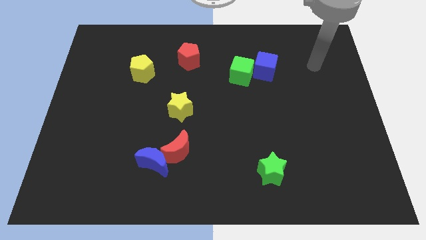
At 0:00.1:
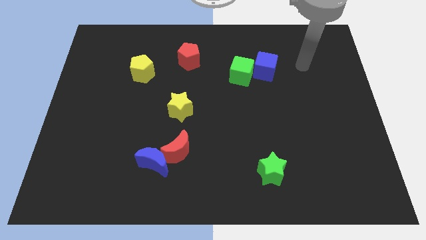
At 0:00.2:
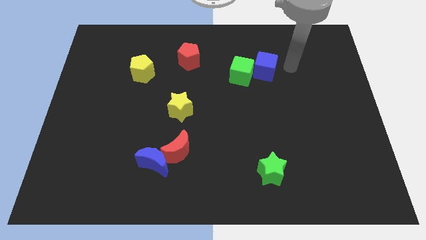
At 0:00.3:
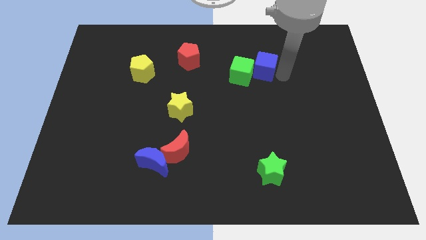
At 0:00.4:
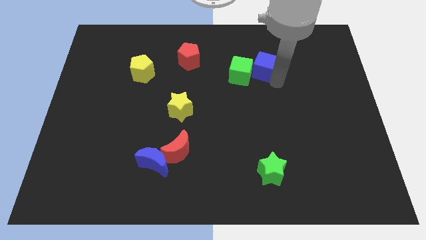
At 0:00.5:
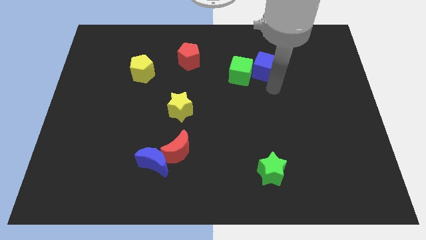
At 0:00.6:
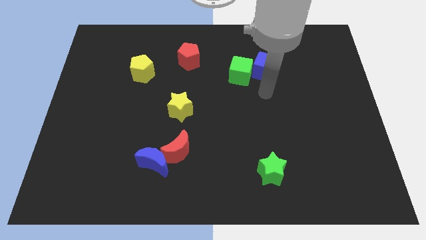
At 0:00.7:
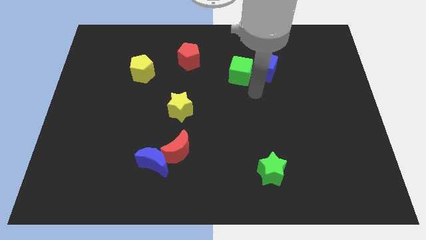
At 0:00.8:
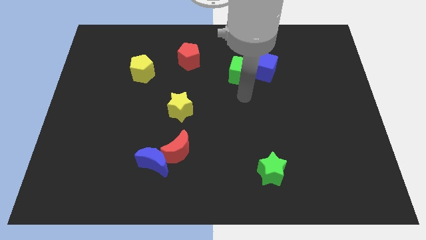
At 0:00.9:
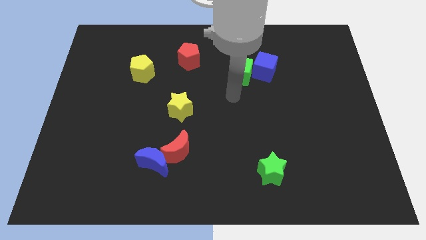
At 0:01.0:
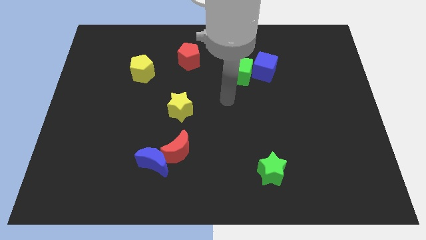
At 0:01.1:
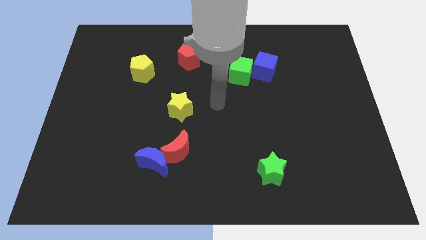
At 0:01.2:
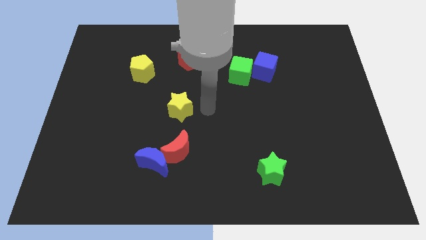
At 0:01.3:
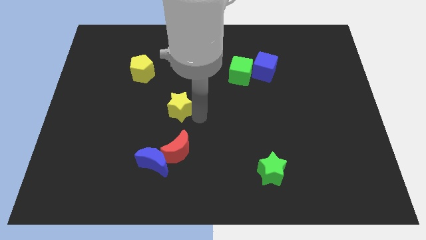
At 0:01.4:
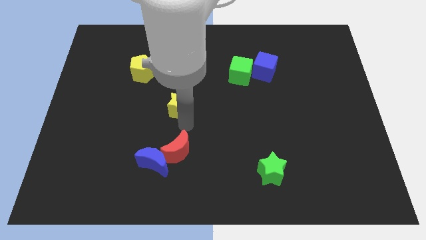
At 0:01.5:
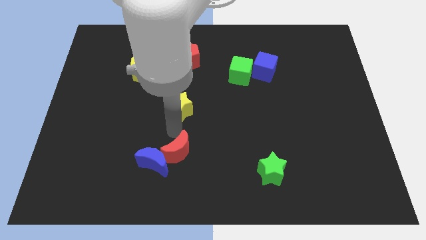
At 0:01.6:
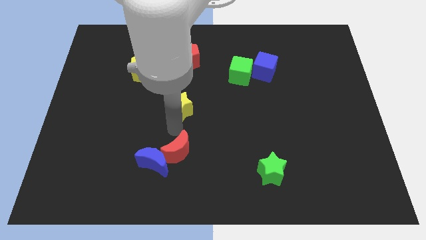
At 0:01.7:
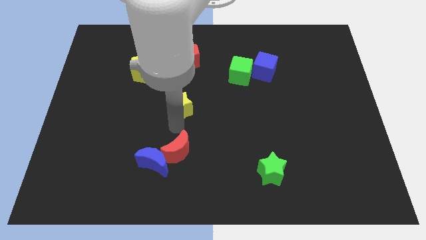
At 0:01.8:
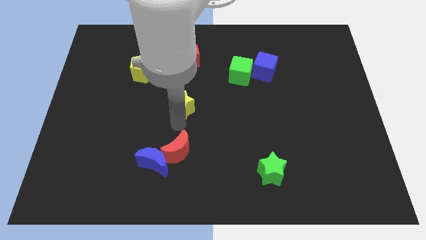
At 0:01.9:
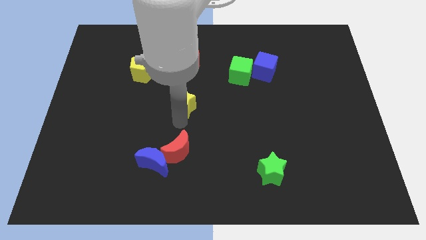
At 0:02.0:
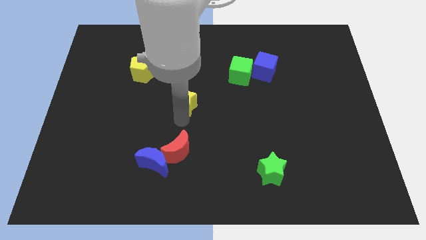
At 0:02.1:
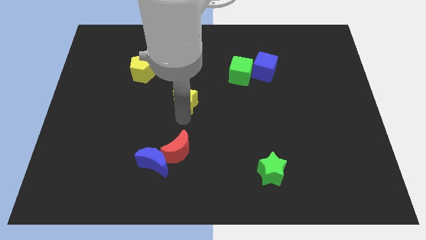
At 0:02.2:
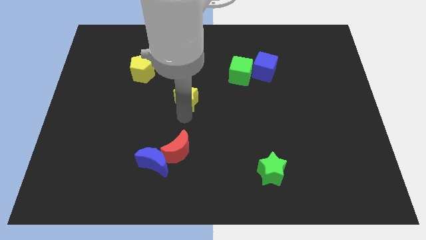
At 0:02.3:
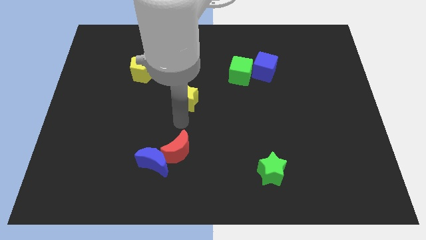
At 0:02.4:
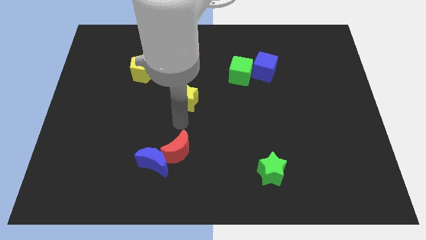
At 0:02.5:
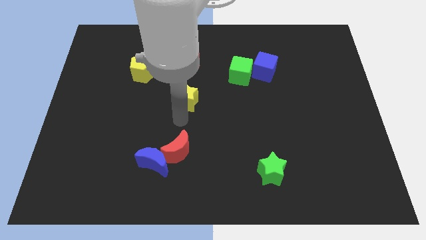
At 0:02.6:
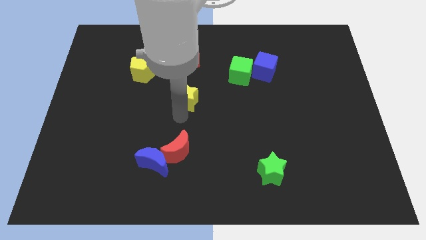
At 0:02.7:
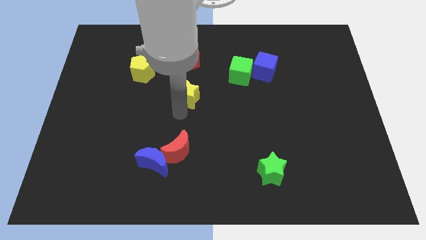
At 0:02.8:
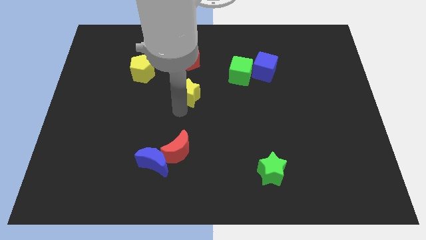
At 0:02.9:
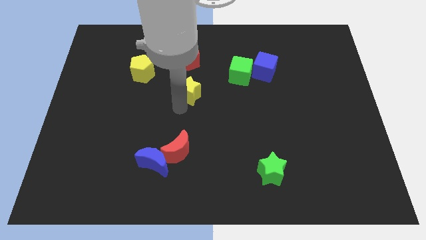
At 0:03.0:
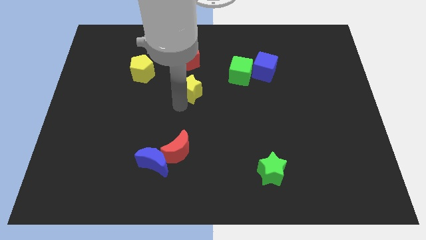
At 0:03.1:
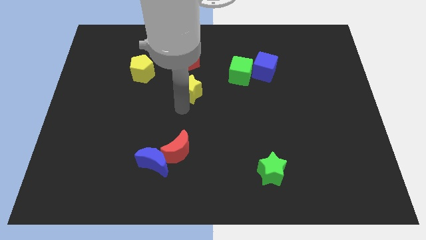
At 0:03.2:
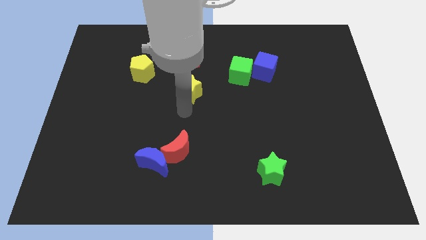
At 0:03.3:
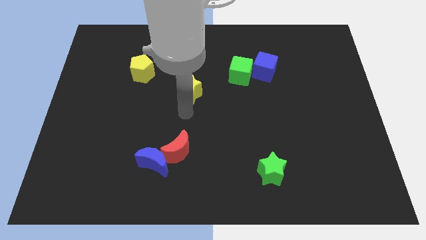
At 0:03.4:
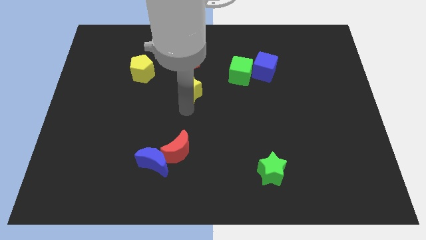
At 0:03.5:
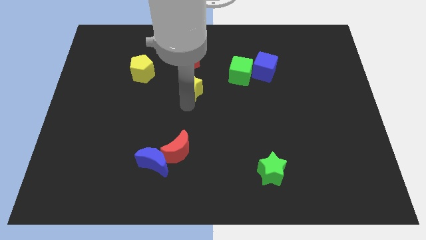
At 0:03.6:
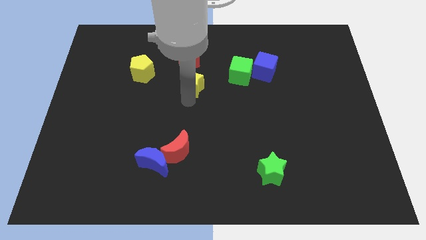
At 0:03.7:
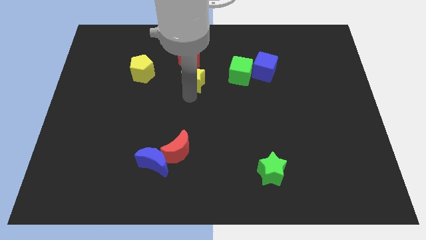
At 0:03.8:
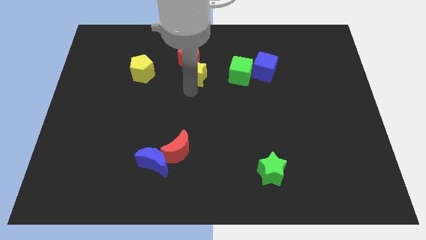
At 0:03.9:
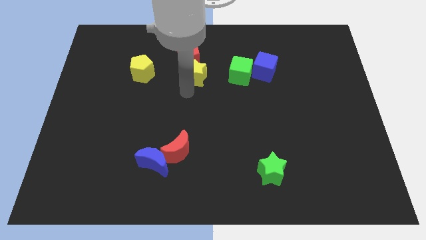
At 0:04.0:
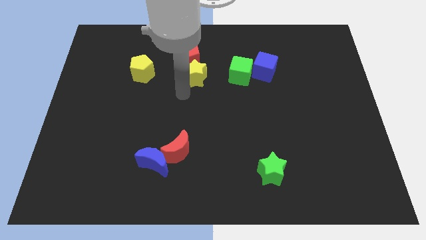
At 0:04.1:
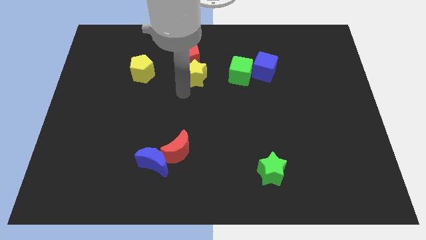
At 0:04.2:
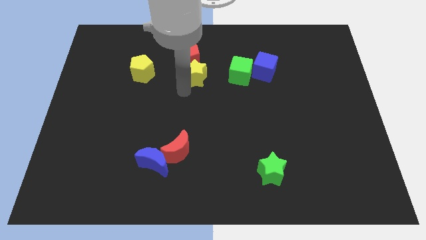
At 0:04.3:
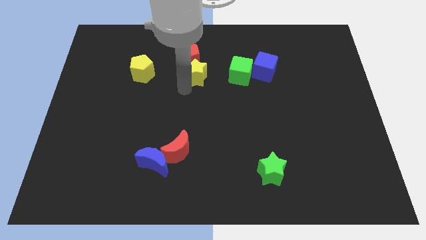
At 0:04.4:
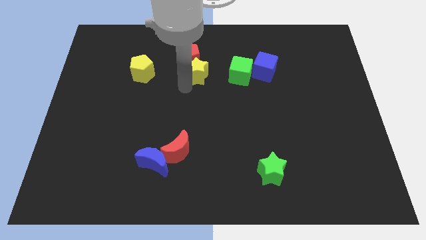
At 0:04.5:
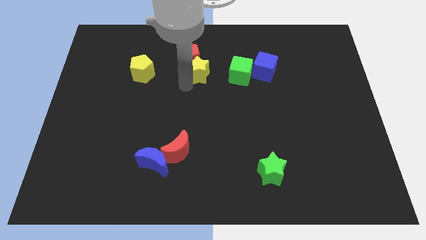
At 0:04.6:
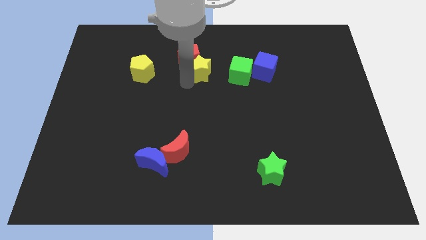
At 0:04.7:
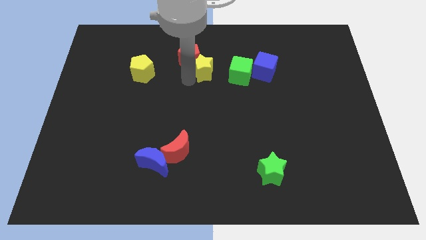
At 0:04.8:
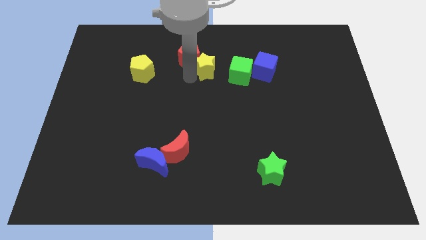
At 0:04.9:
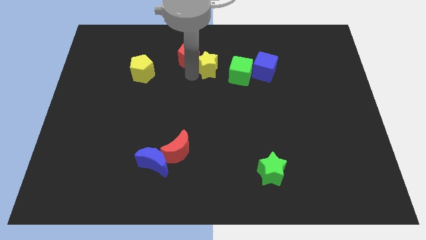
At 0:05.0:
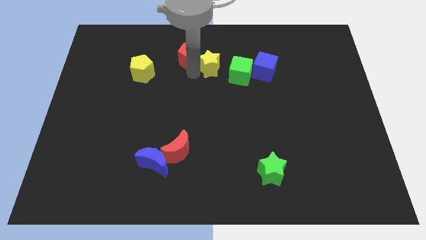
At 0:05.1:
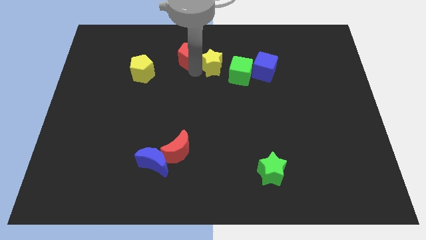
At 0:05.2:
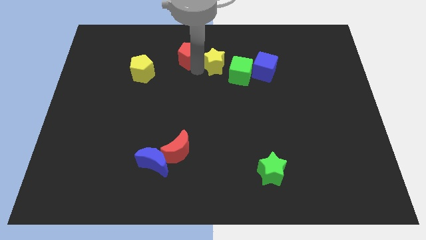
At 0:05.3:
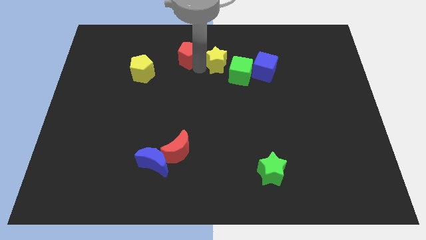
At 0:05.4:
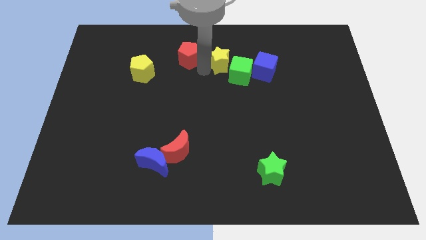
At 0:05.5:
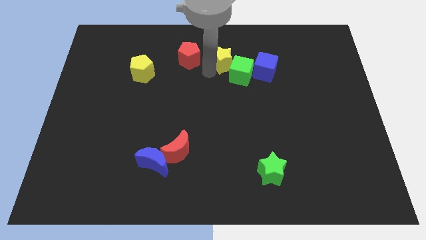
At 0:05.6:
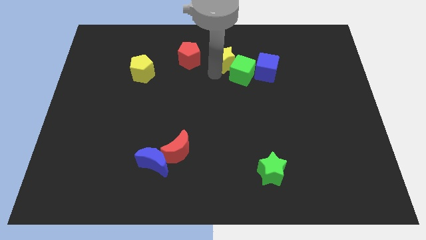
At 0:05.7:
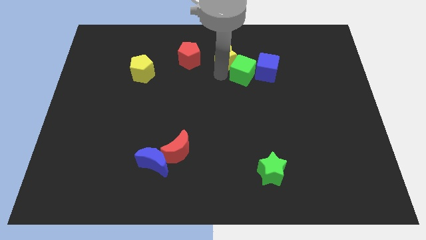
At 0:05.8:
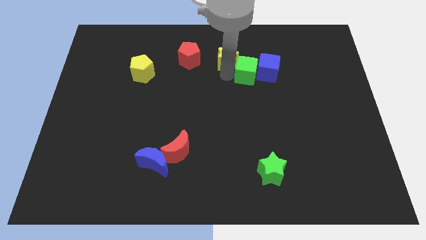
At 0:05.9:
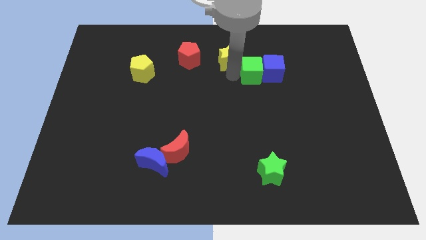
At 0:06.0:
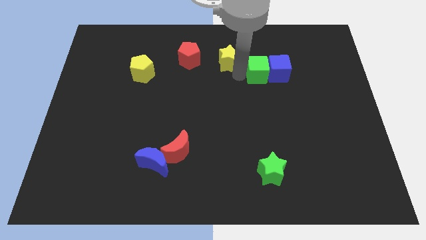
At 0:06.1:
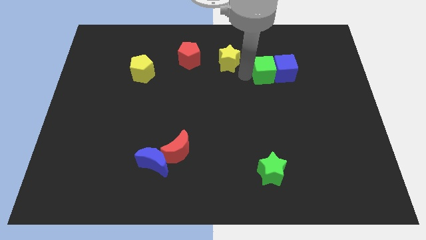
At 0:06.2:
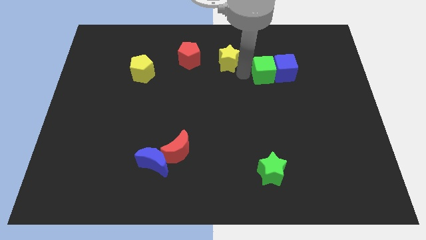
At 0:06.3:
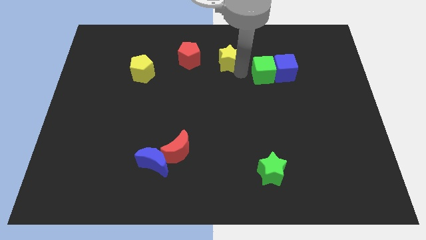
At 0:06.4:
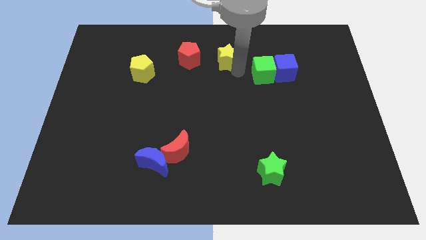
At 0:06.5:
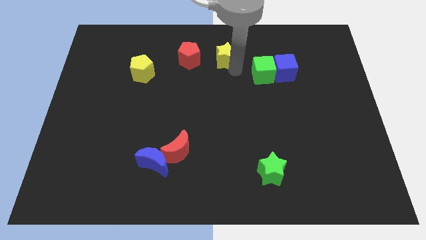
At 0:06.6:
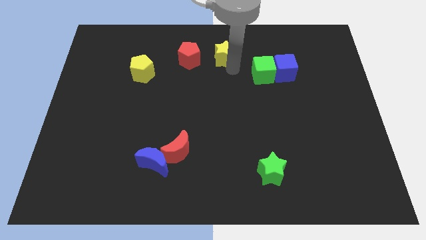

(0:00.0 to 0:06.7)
push the yellow star to the top side
